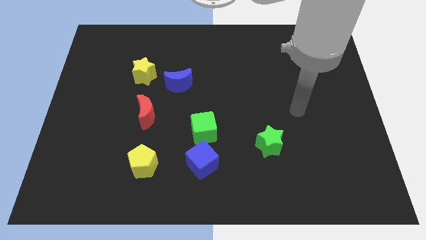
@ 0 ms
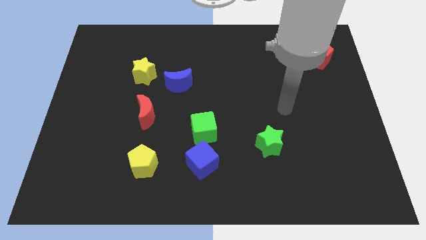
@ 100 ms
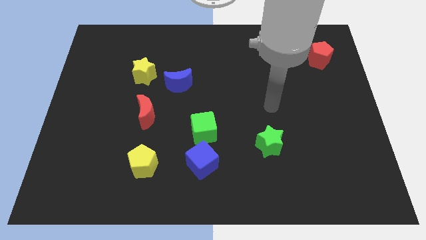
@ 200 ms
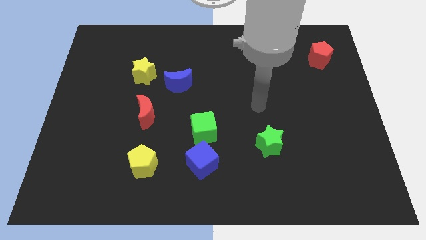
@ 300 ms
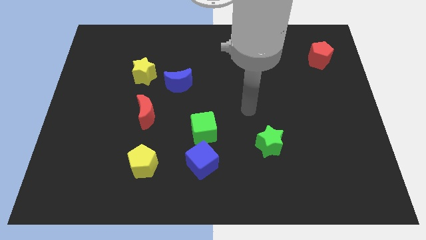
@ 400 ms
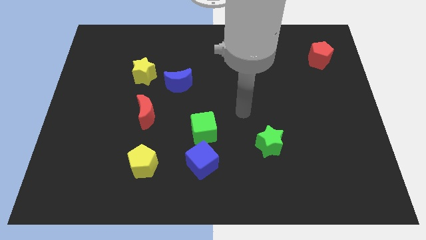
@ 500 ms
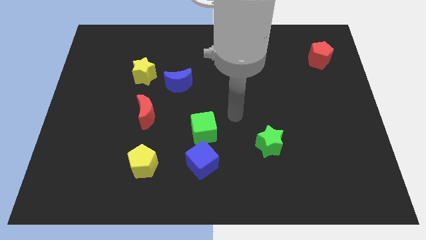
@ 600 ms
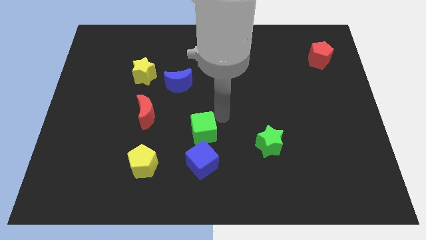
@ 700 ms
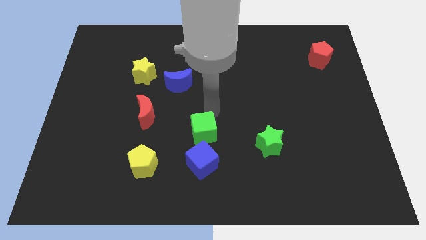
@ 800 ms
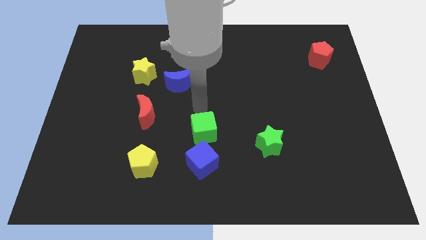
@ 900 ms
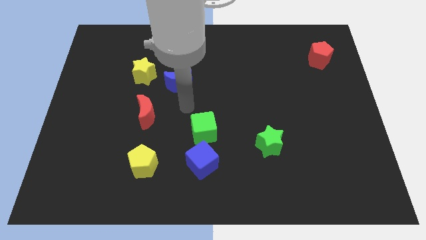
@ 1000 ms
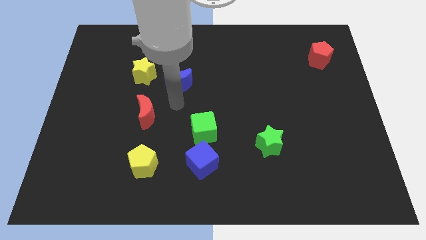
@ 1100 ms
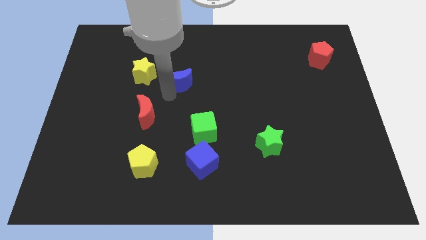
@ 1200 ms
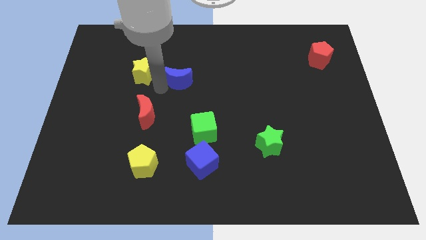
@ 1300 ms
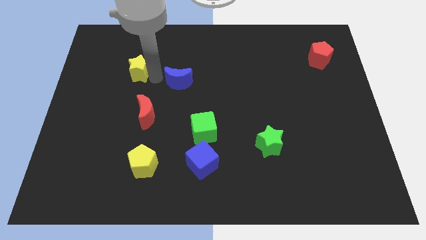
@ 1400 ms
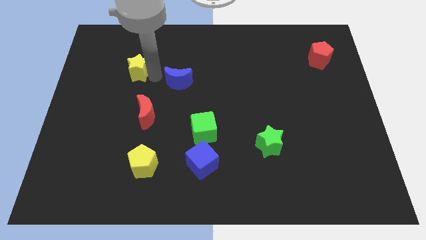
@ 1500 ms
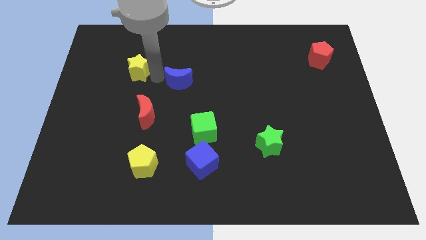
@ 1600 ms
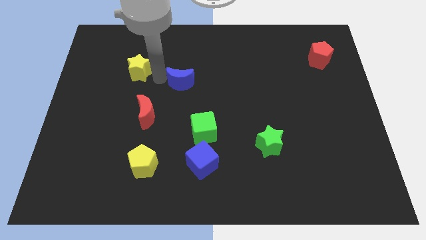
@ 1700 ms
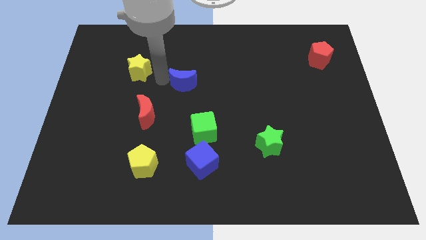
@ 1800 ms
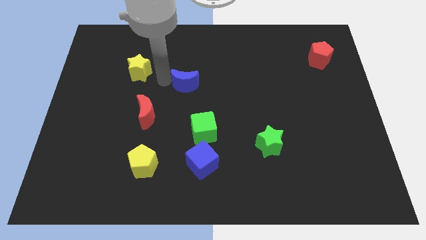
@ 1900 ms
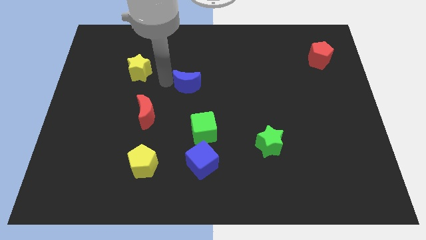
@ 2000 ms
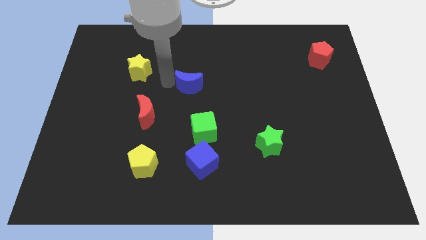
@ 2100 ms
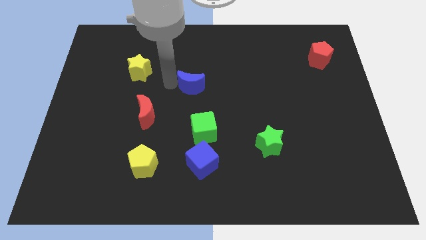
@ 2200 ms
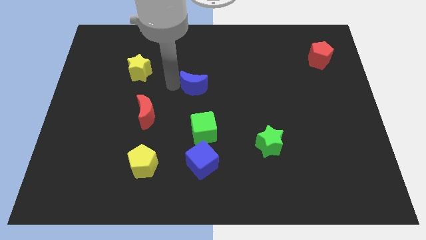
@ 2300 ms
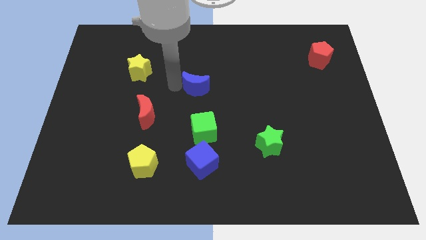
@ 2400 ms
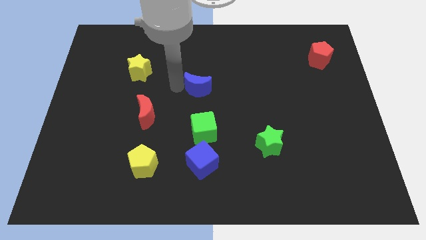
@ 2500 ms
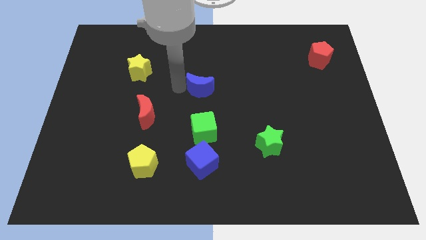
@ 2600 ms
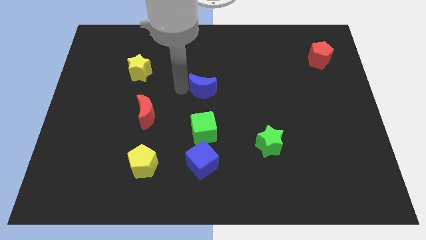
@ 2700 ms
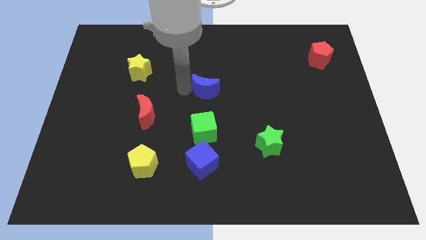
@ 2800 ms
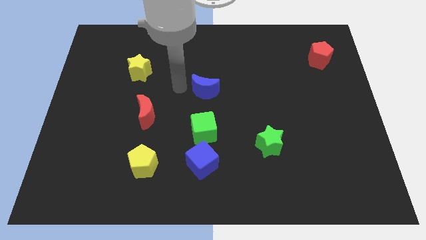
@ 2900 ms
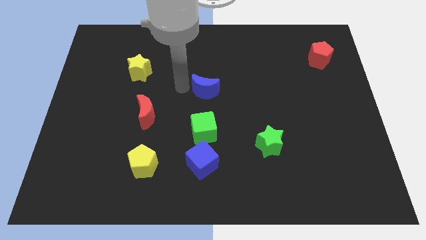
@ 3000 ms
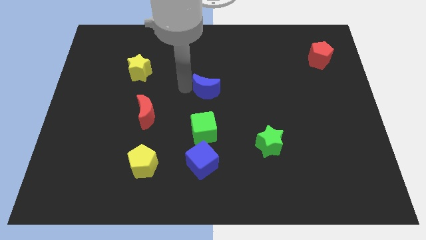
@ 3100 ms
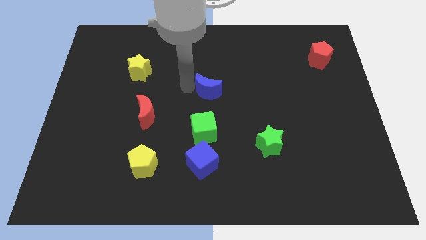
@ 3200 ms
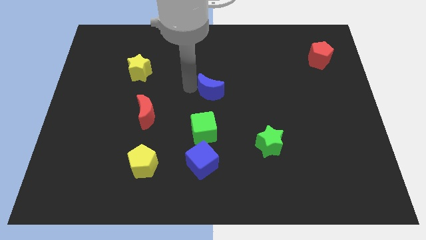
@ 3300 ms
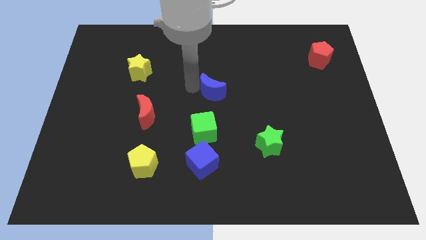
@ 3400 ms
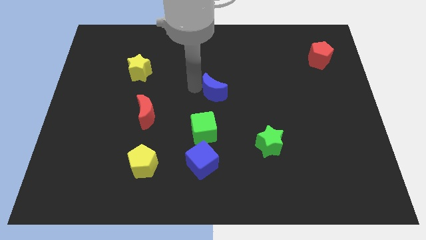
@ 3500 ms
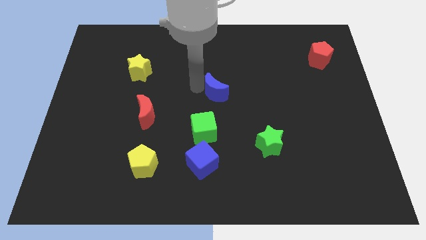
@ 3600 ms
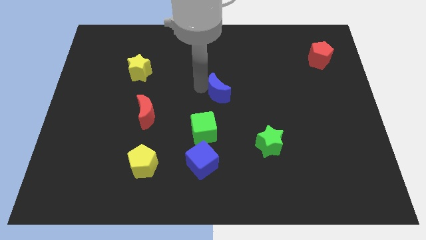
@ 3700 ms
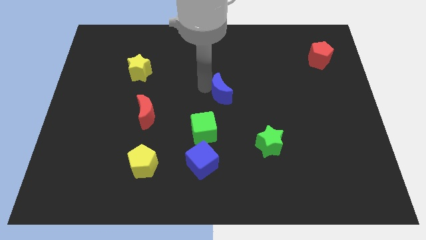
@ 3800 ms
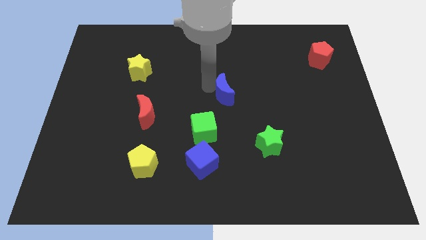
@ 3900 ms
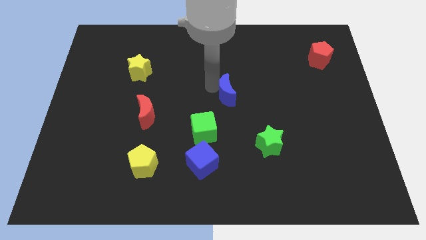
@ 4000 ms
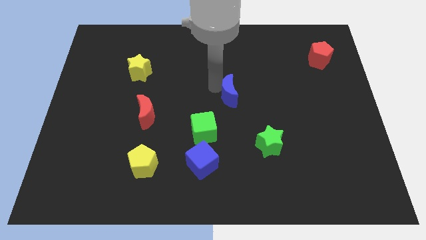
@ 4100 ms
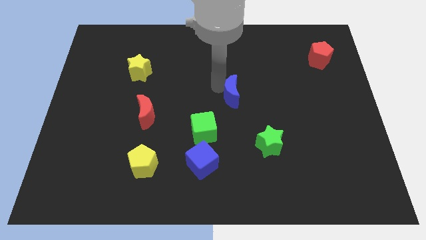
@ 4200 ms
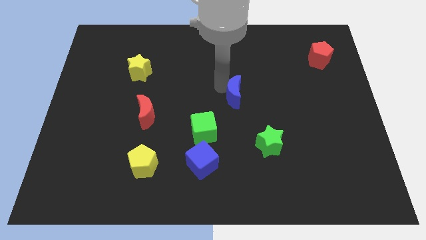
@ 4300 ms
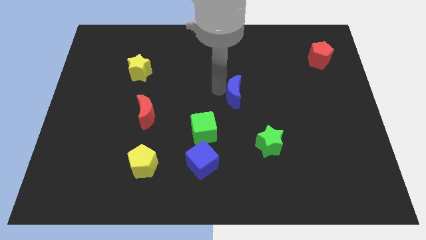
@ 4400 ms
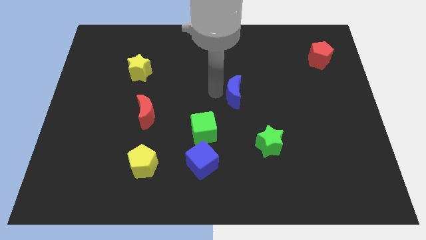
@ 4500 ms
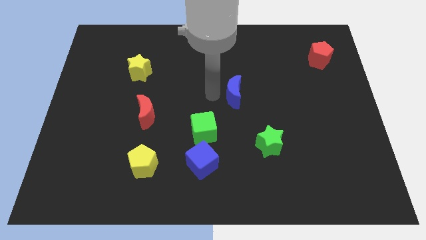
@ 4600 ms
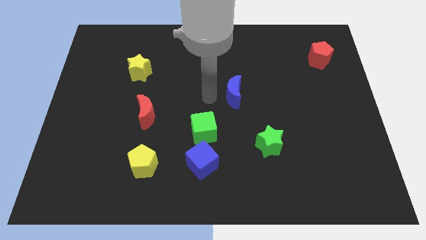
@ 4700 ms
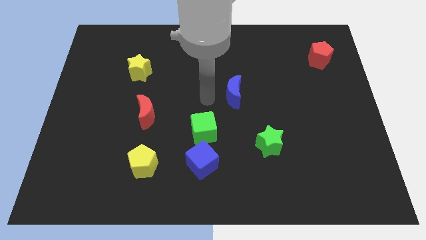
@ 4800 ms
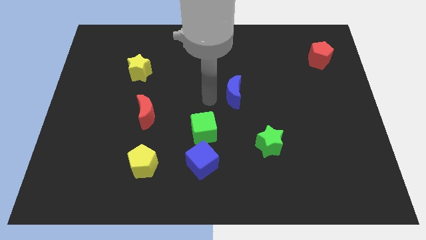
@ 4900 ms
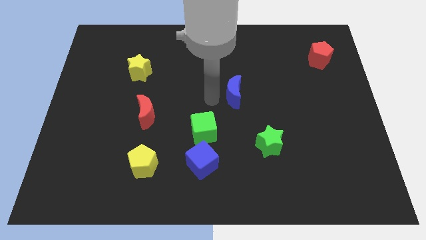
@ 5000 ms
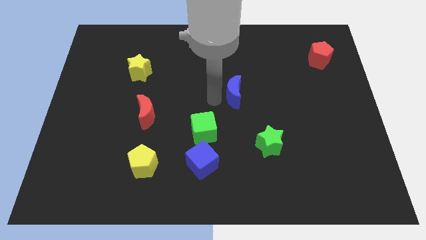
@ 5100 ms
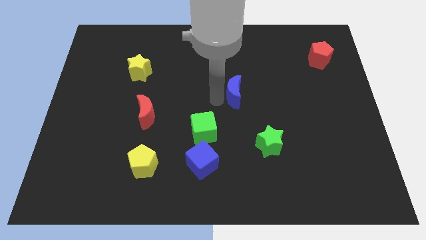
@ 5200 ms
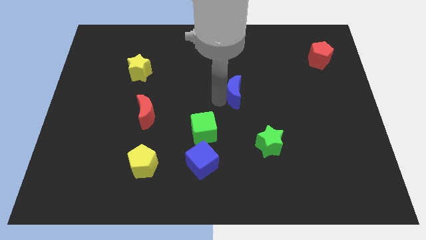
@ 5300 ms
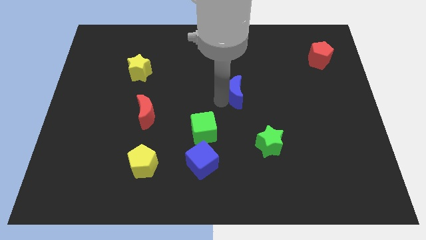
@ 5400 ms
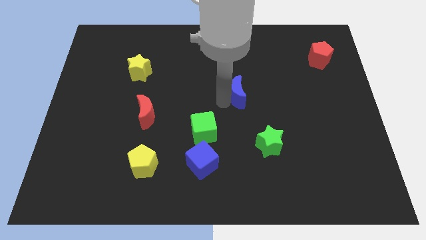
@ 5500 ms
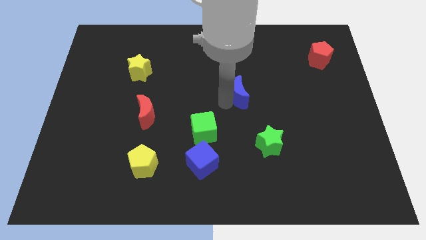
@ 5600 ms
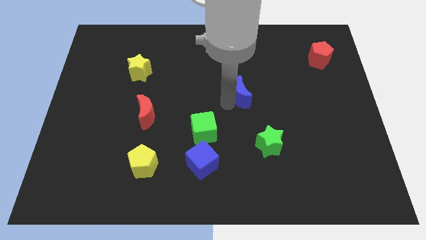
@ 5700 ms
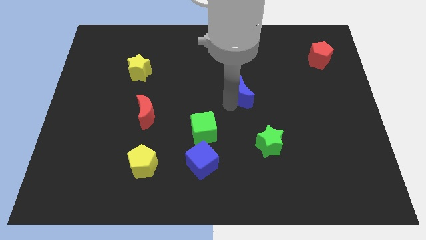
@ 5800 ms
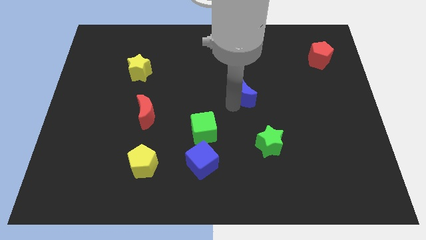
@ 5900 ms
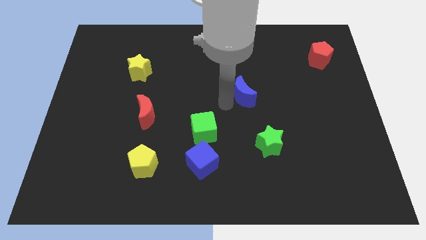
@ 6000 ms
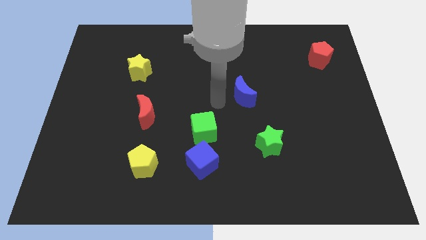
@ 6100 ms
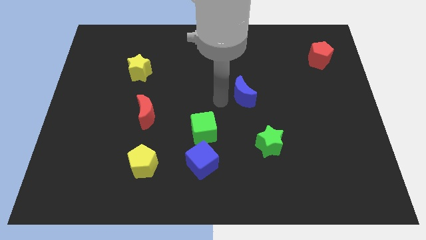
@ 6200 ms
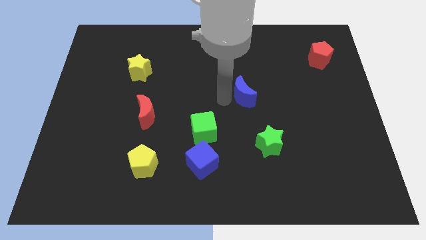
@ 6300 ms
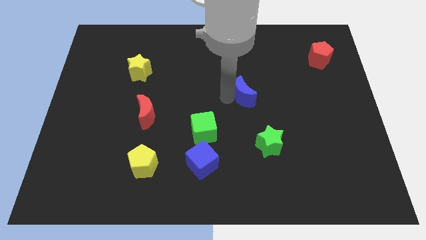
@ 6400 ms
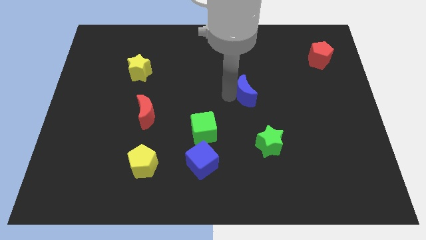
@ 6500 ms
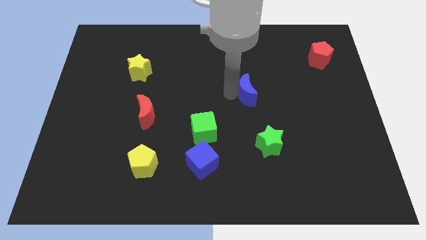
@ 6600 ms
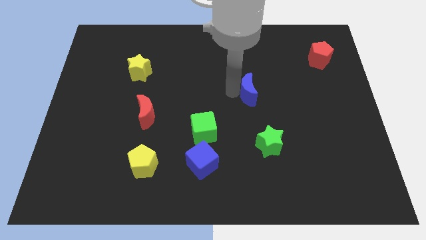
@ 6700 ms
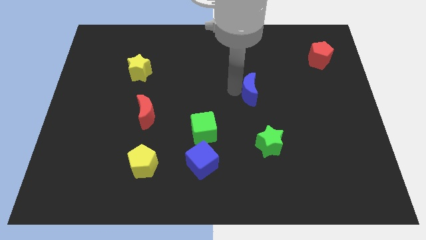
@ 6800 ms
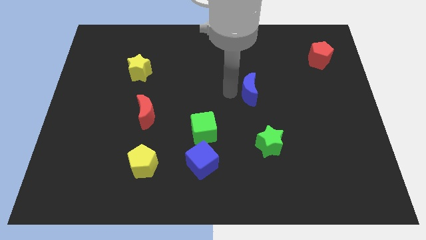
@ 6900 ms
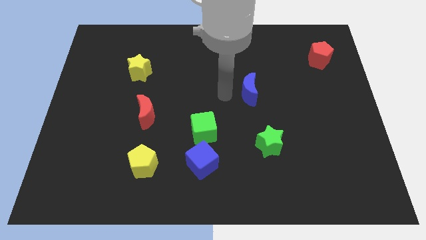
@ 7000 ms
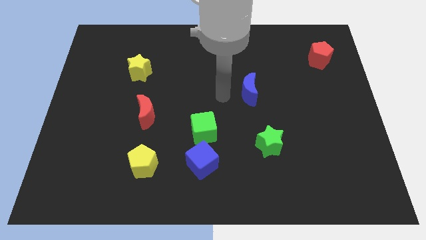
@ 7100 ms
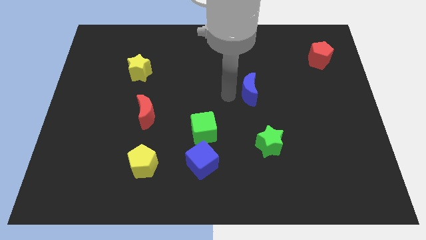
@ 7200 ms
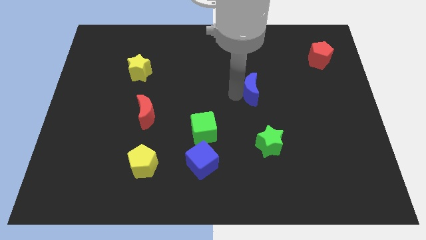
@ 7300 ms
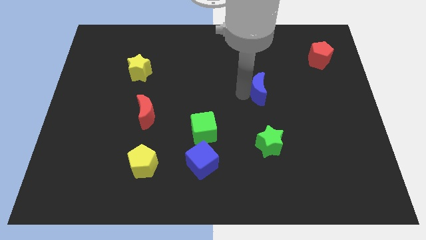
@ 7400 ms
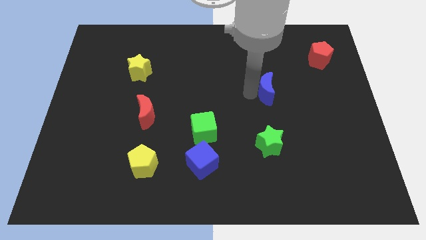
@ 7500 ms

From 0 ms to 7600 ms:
push the blue moon right

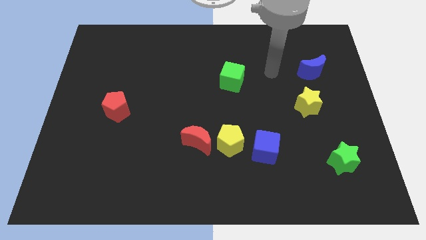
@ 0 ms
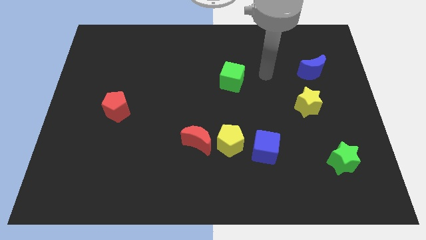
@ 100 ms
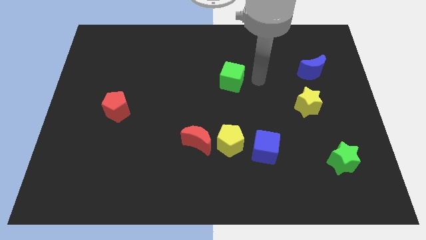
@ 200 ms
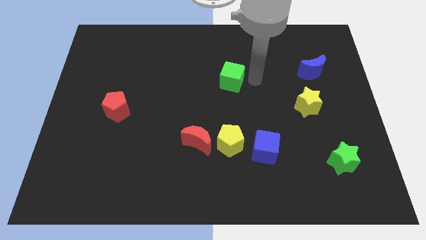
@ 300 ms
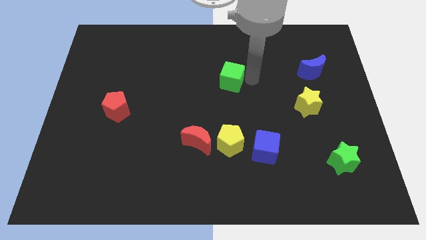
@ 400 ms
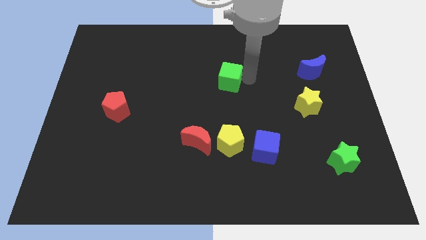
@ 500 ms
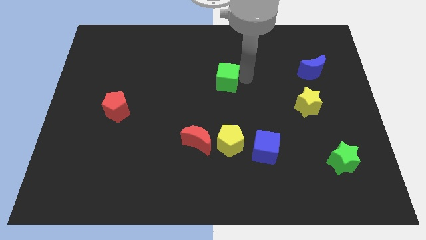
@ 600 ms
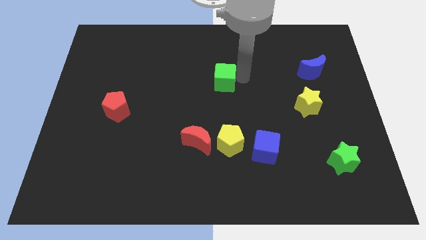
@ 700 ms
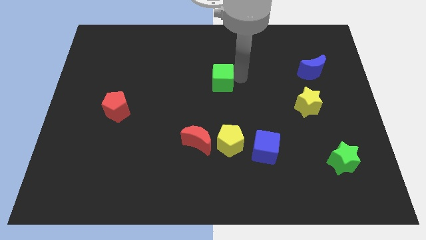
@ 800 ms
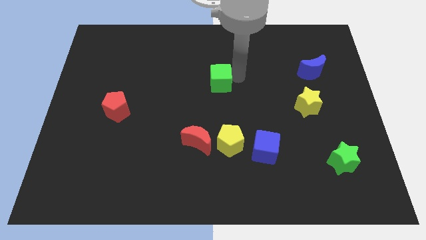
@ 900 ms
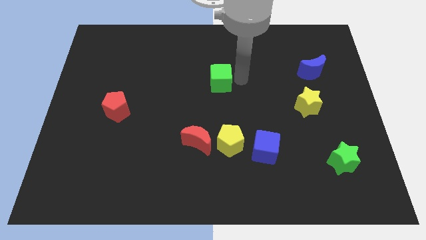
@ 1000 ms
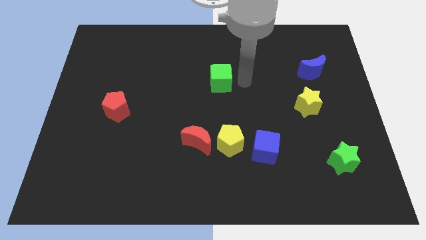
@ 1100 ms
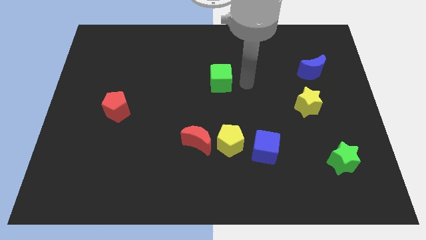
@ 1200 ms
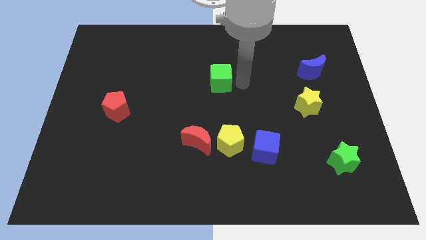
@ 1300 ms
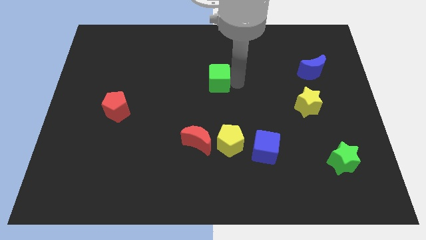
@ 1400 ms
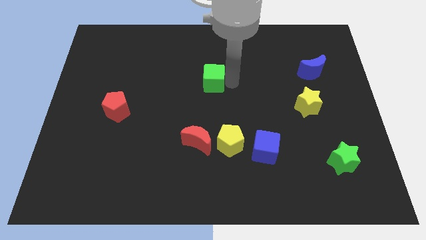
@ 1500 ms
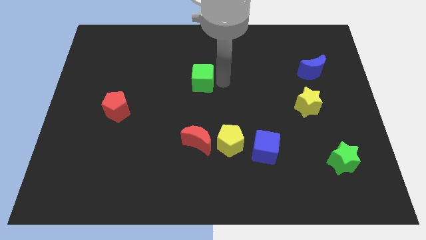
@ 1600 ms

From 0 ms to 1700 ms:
push the green cube left slightly
